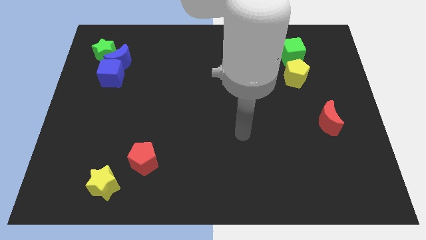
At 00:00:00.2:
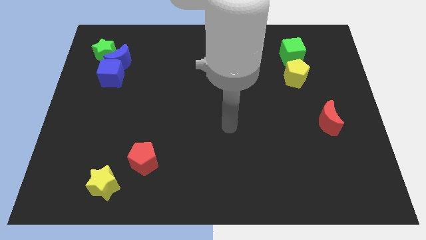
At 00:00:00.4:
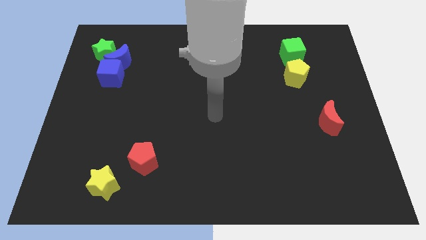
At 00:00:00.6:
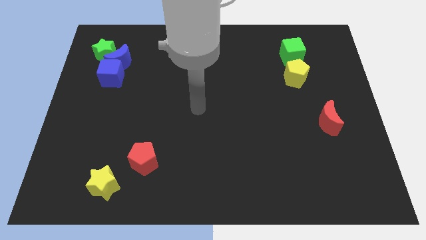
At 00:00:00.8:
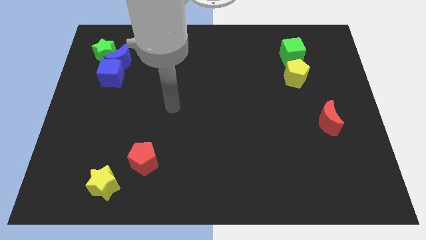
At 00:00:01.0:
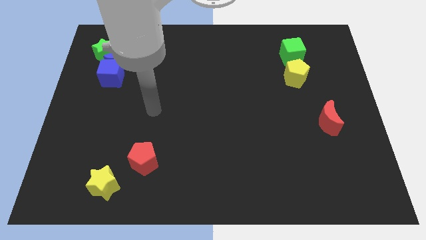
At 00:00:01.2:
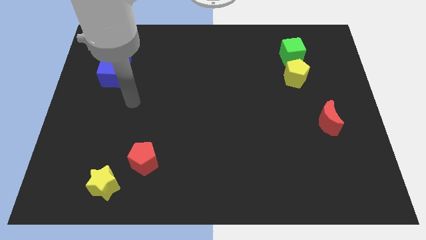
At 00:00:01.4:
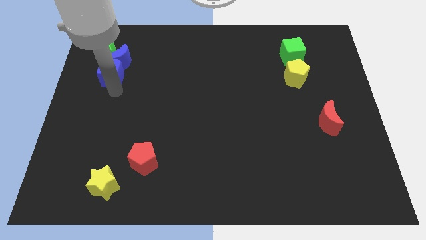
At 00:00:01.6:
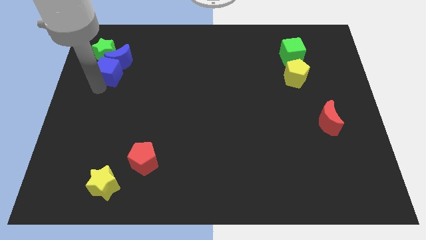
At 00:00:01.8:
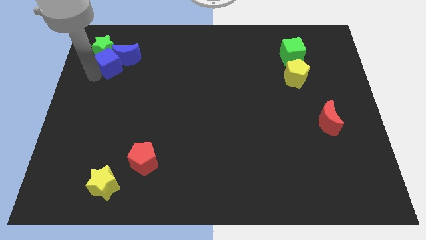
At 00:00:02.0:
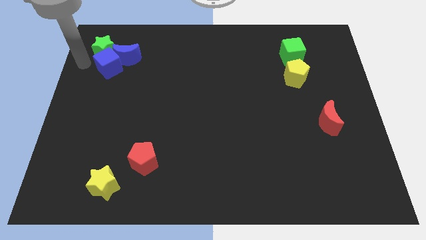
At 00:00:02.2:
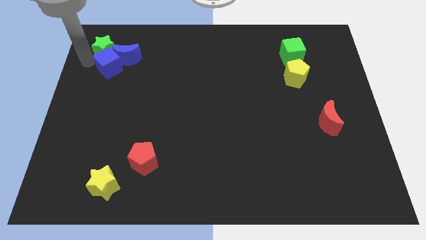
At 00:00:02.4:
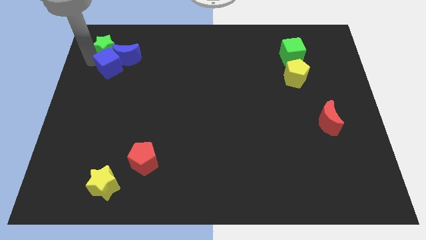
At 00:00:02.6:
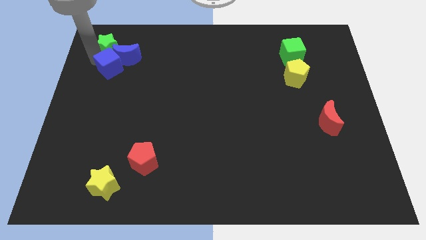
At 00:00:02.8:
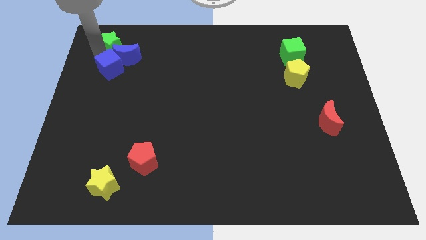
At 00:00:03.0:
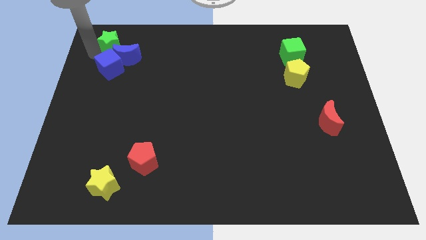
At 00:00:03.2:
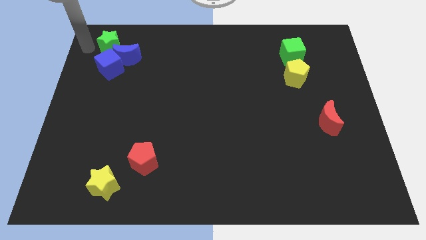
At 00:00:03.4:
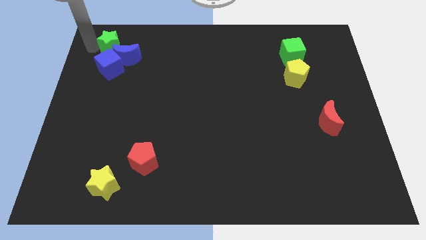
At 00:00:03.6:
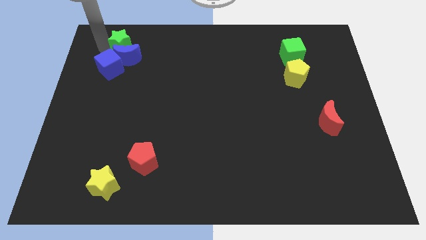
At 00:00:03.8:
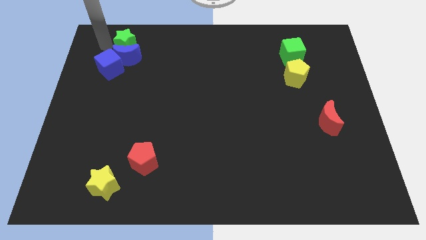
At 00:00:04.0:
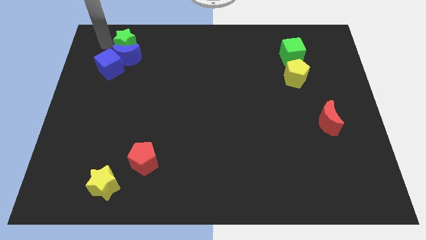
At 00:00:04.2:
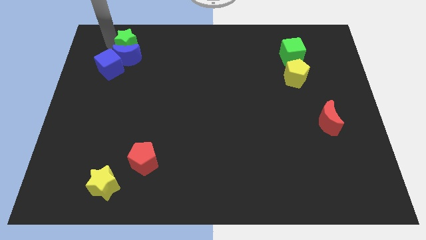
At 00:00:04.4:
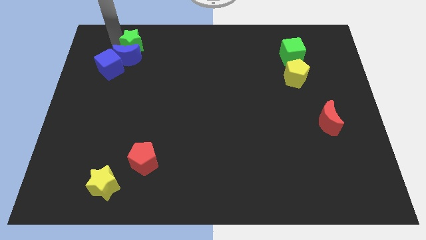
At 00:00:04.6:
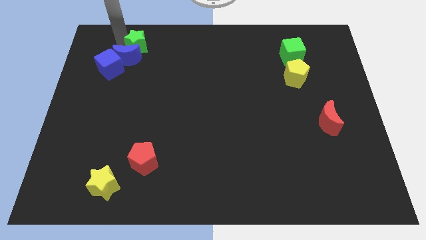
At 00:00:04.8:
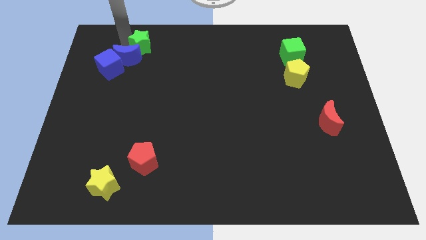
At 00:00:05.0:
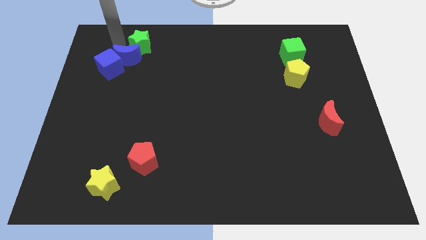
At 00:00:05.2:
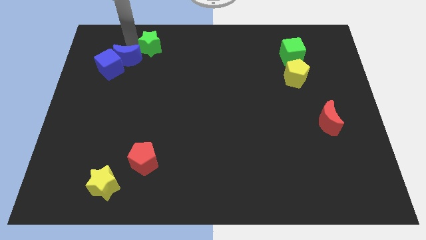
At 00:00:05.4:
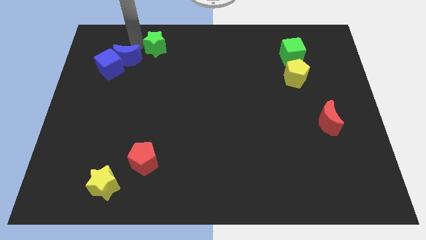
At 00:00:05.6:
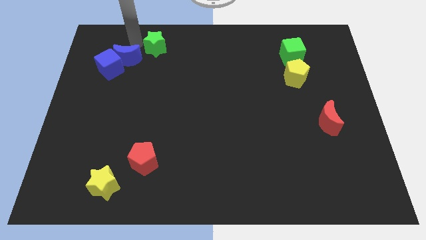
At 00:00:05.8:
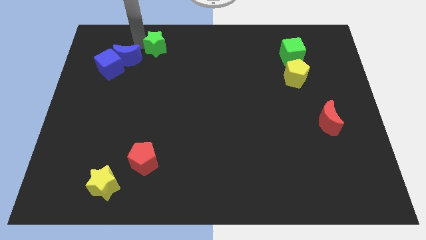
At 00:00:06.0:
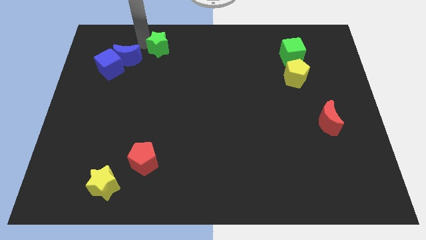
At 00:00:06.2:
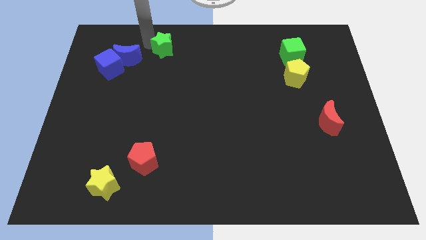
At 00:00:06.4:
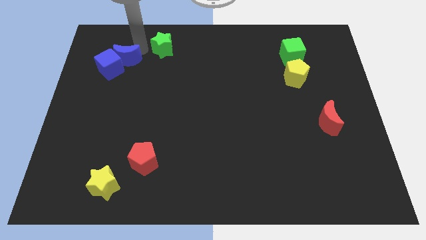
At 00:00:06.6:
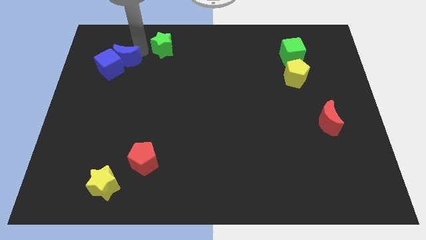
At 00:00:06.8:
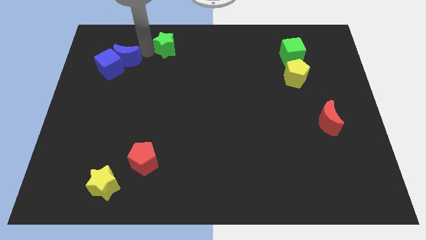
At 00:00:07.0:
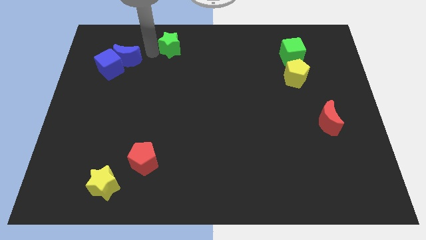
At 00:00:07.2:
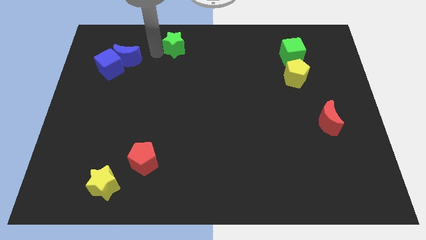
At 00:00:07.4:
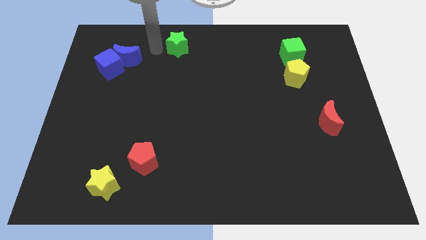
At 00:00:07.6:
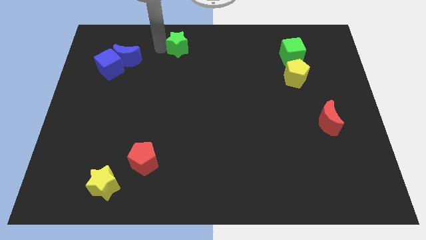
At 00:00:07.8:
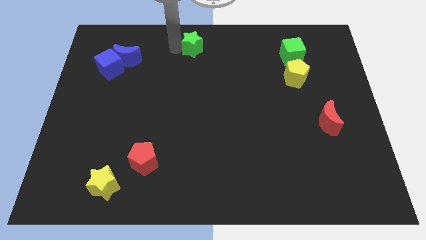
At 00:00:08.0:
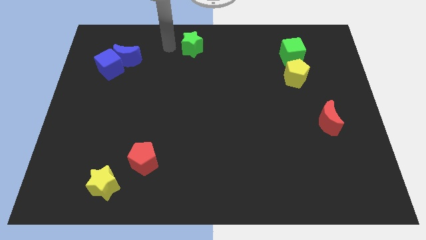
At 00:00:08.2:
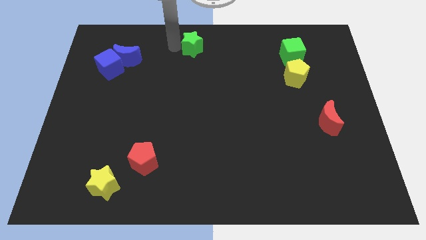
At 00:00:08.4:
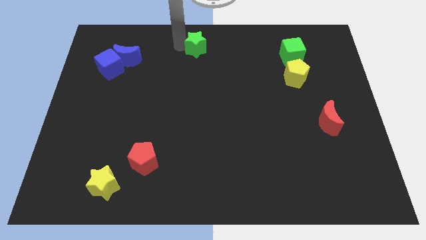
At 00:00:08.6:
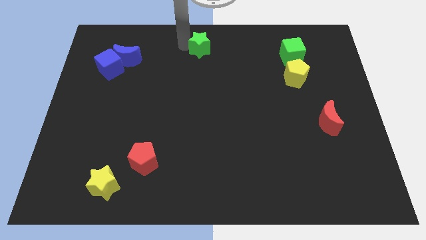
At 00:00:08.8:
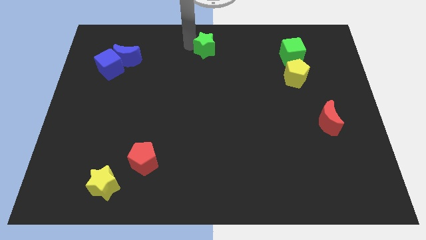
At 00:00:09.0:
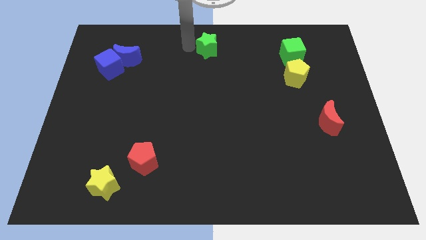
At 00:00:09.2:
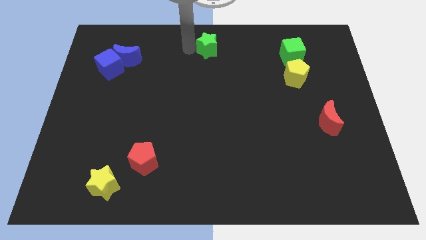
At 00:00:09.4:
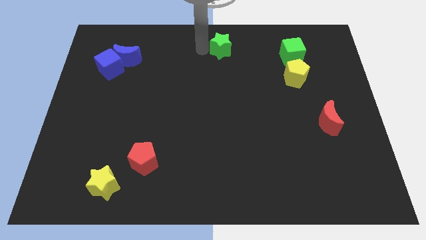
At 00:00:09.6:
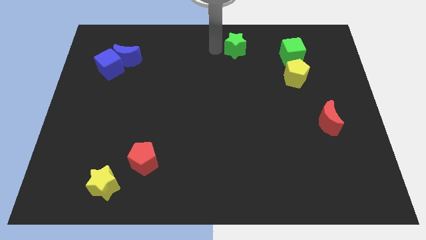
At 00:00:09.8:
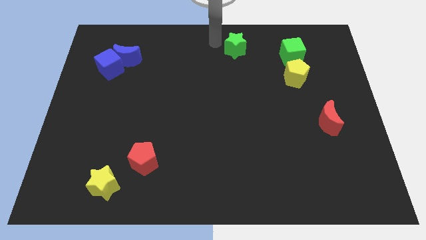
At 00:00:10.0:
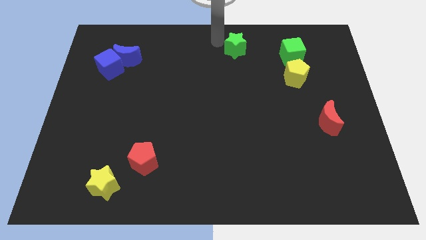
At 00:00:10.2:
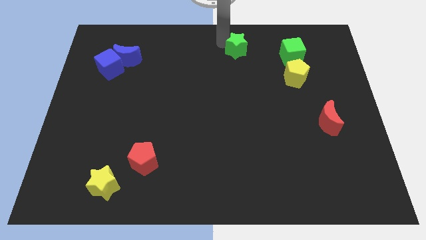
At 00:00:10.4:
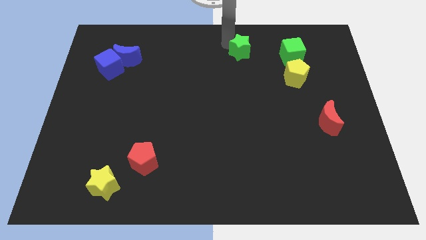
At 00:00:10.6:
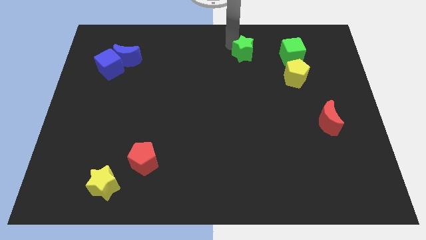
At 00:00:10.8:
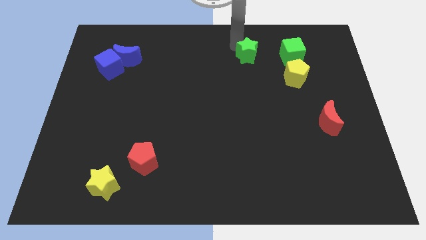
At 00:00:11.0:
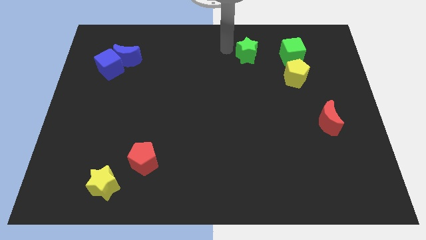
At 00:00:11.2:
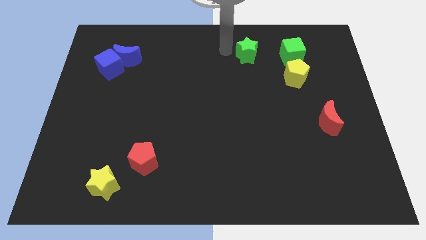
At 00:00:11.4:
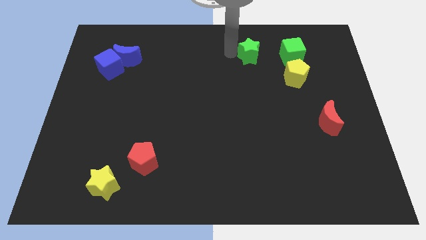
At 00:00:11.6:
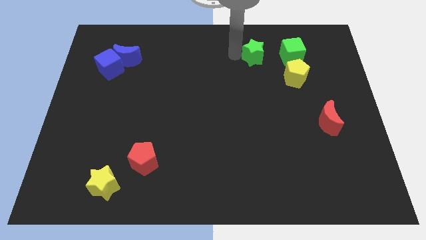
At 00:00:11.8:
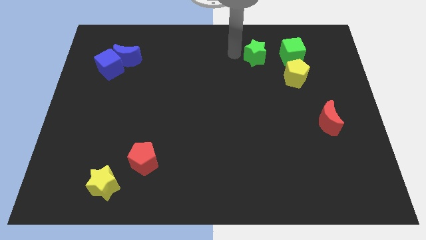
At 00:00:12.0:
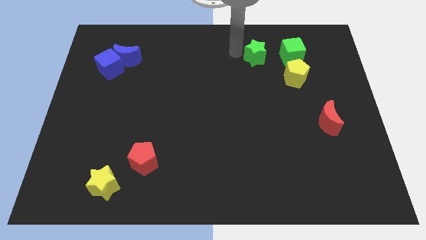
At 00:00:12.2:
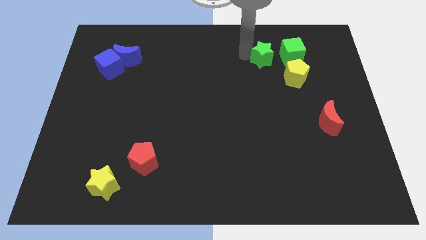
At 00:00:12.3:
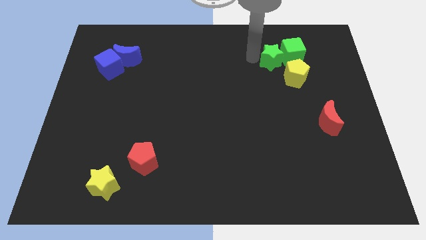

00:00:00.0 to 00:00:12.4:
put the green star next to the green cube

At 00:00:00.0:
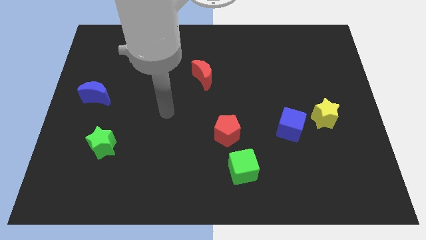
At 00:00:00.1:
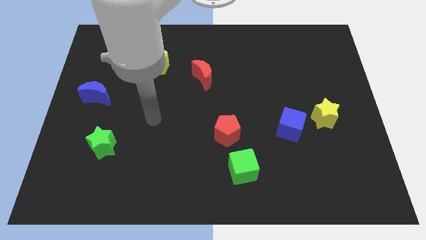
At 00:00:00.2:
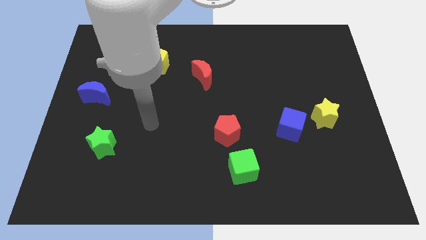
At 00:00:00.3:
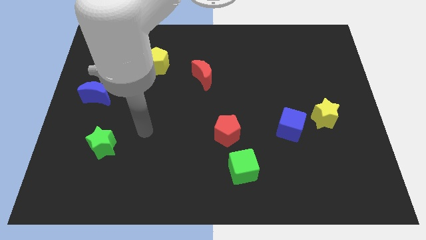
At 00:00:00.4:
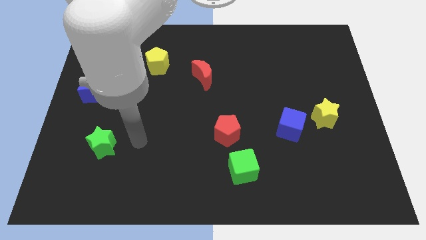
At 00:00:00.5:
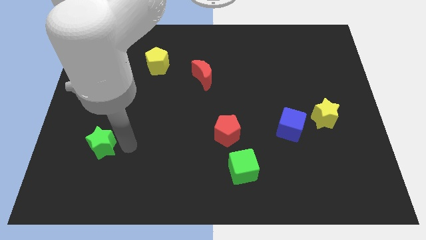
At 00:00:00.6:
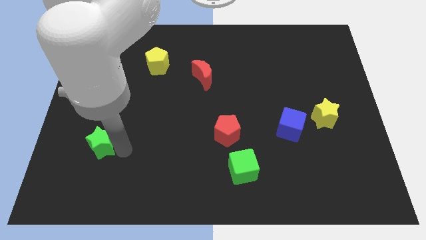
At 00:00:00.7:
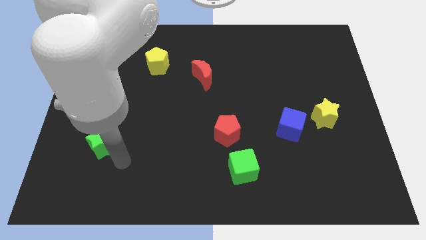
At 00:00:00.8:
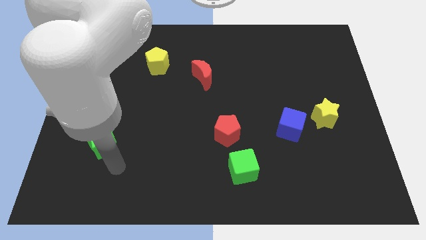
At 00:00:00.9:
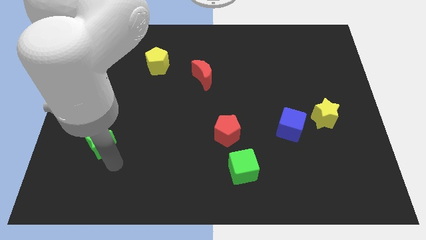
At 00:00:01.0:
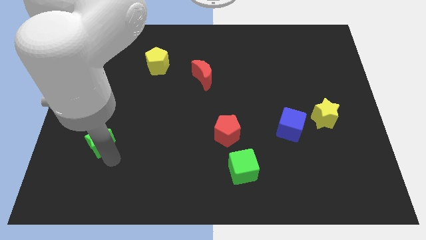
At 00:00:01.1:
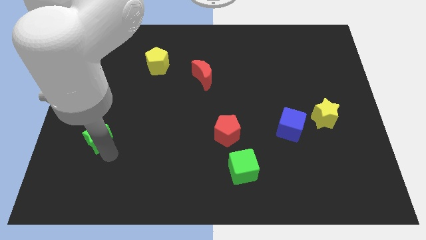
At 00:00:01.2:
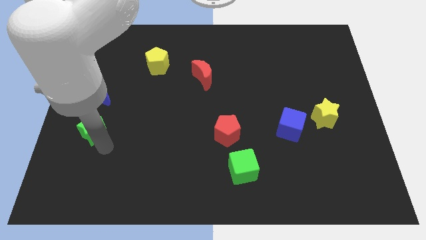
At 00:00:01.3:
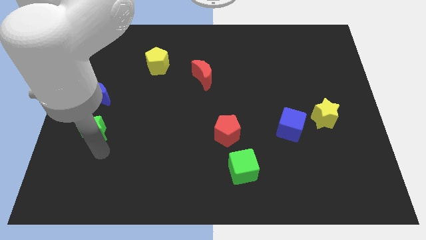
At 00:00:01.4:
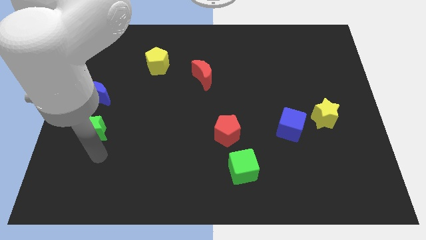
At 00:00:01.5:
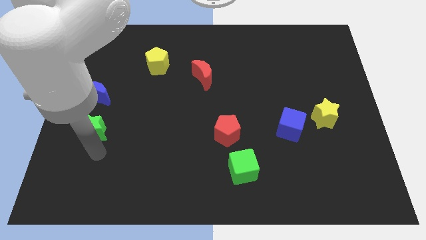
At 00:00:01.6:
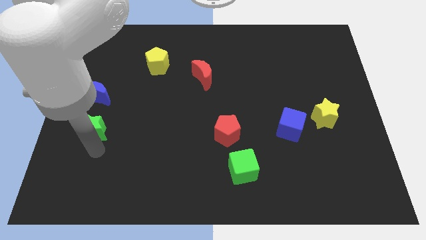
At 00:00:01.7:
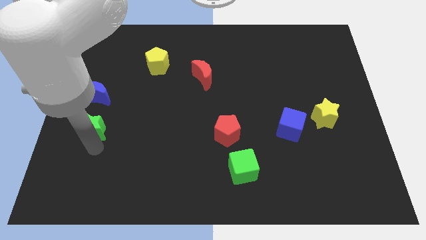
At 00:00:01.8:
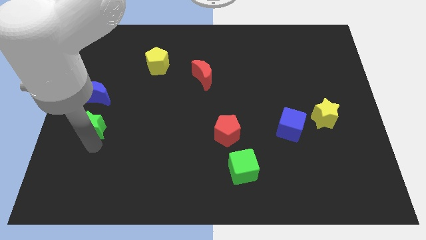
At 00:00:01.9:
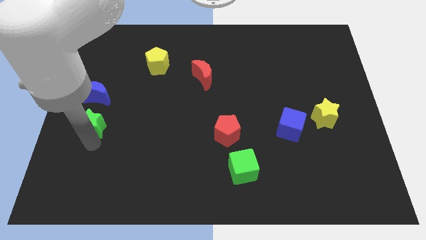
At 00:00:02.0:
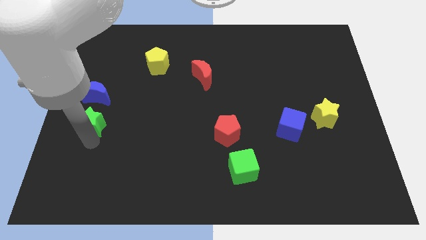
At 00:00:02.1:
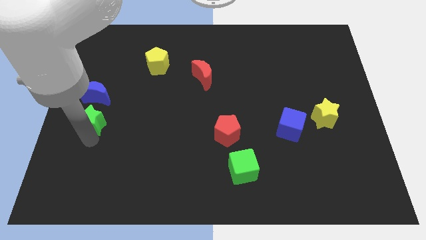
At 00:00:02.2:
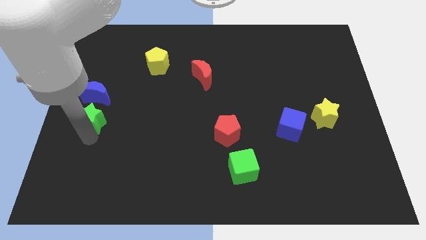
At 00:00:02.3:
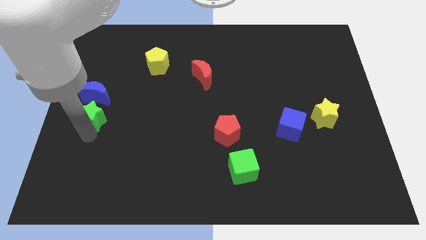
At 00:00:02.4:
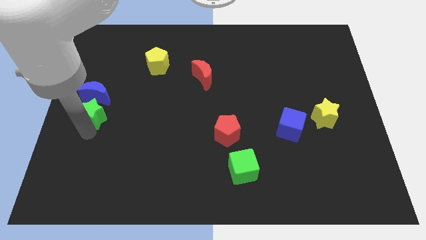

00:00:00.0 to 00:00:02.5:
move the green star close to the blue moon
